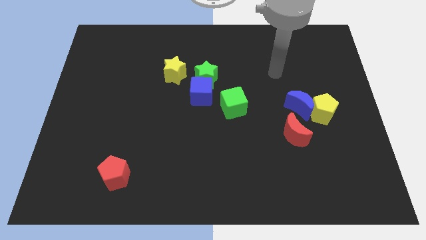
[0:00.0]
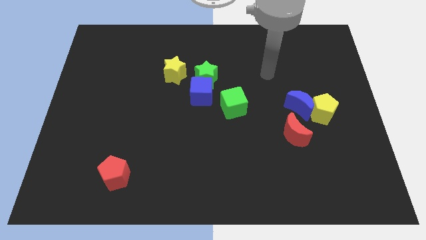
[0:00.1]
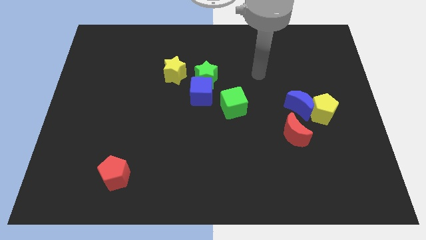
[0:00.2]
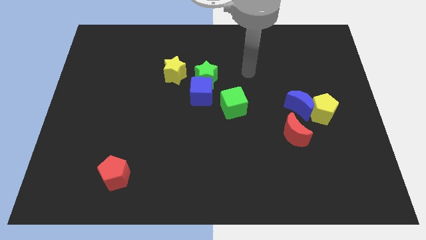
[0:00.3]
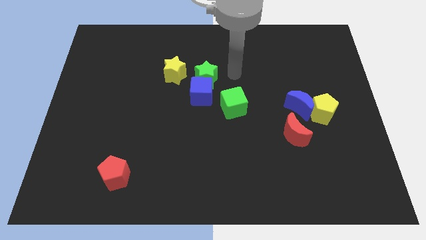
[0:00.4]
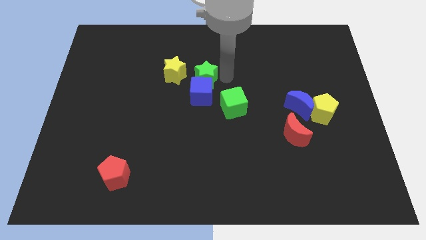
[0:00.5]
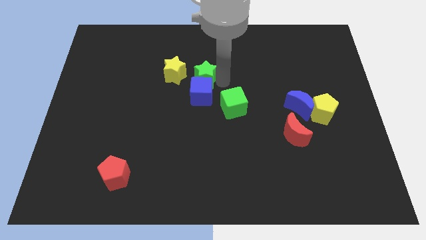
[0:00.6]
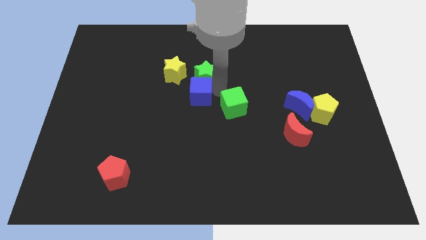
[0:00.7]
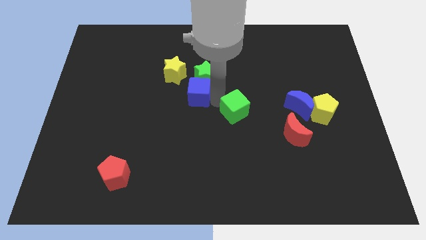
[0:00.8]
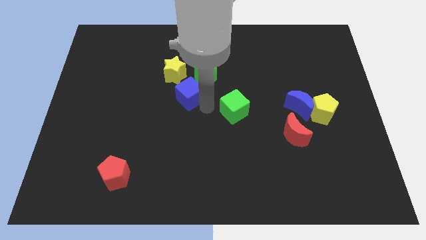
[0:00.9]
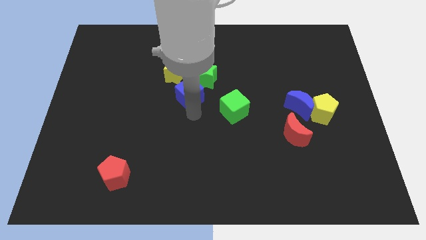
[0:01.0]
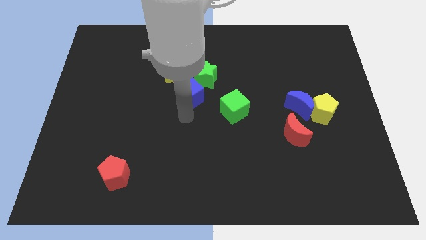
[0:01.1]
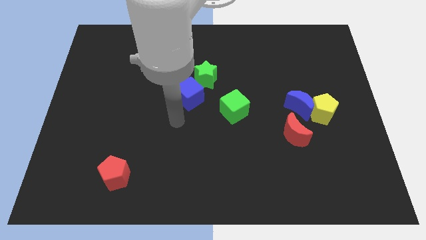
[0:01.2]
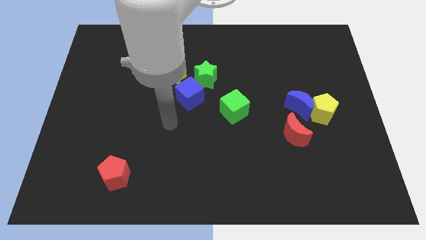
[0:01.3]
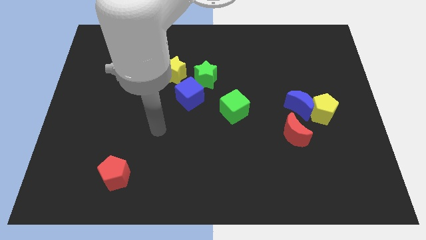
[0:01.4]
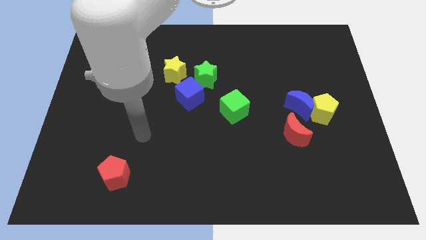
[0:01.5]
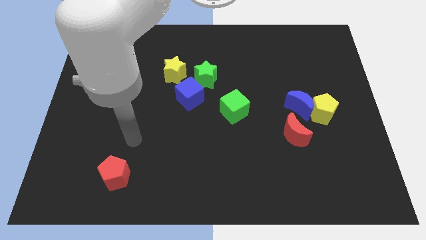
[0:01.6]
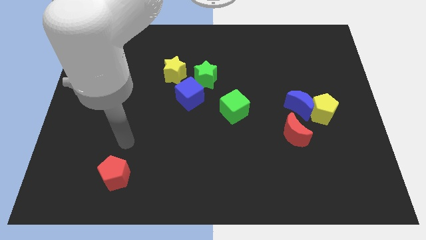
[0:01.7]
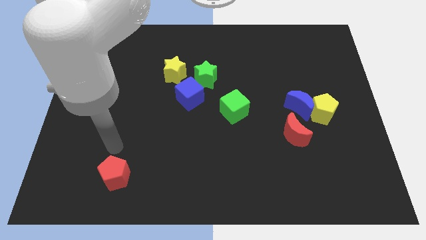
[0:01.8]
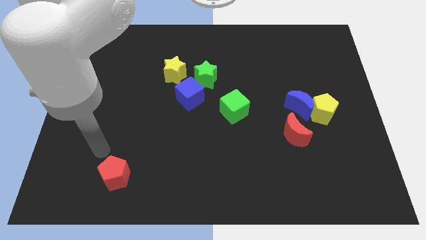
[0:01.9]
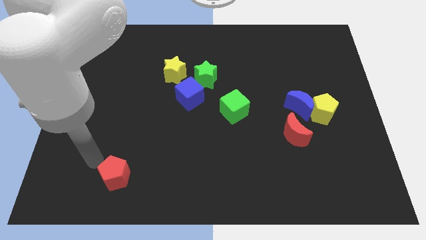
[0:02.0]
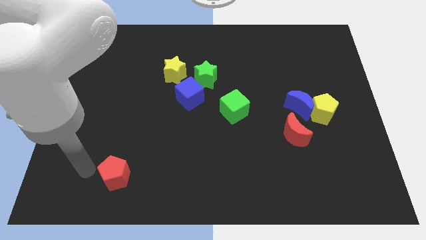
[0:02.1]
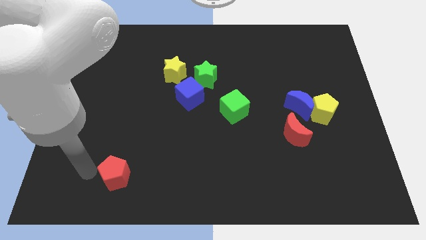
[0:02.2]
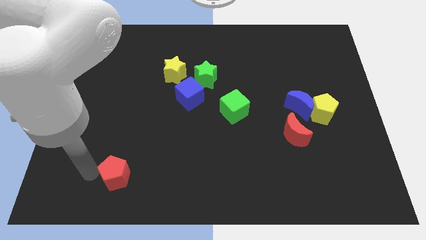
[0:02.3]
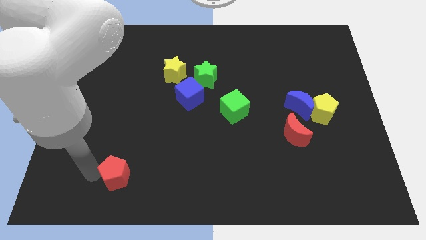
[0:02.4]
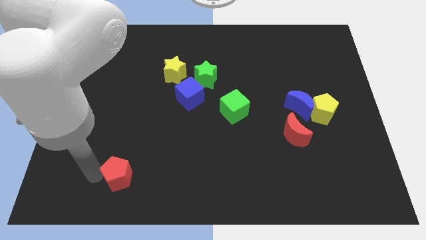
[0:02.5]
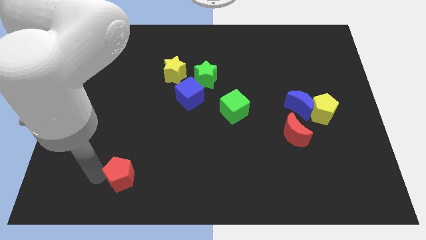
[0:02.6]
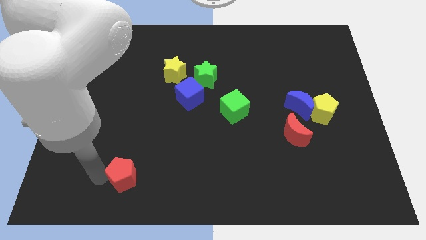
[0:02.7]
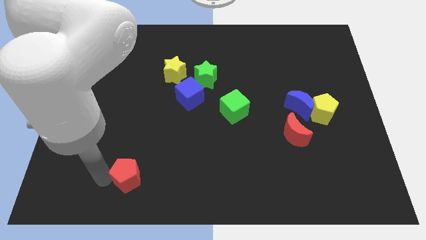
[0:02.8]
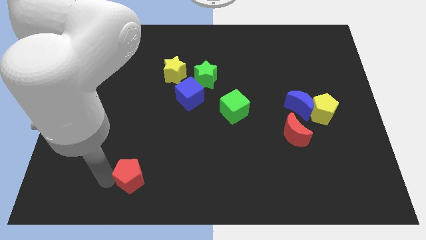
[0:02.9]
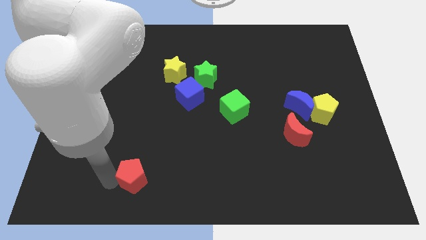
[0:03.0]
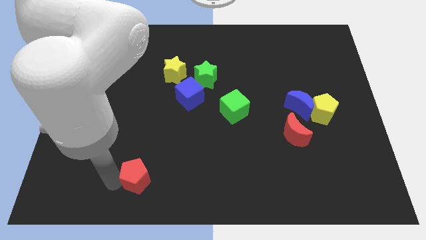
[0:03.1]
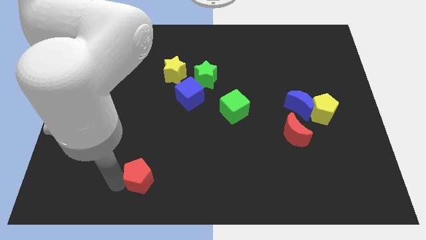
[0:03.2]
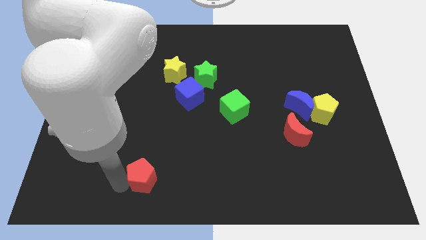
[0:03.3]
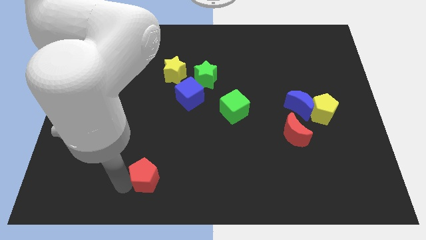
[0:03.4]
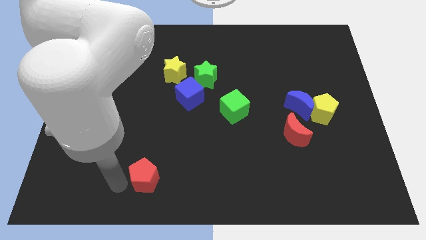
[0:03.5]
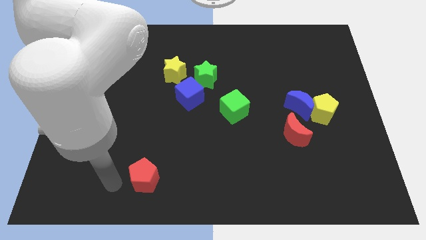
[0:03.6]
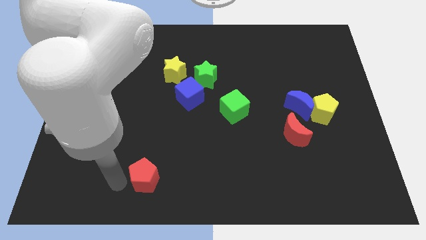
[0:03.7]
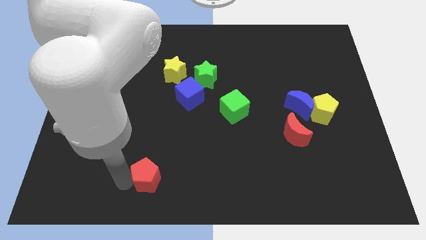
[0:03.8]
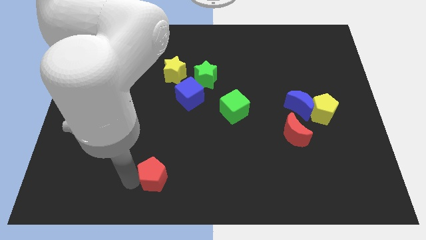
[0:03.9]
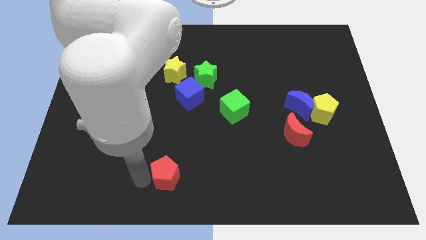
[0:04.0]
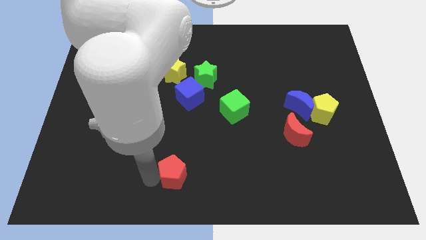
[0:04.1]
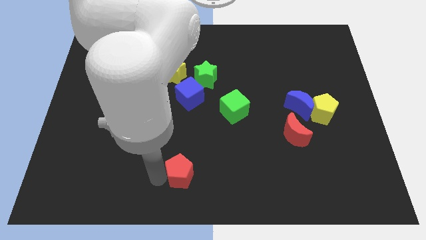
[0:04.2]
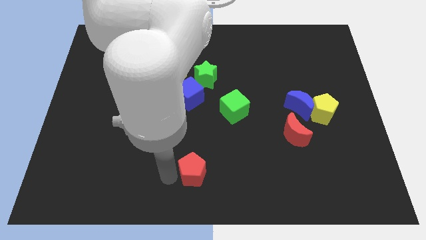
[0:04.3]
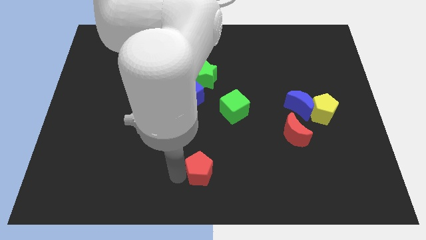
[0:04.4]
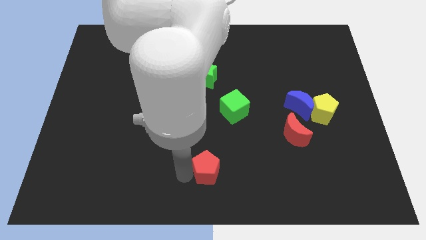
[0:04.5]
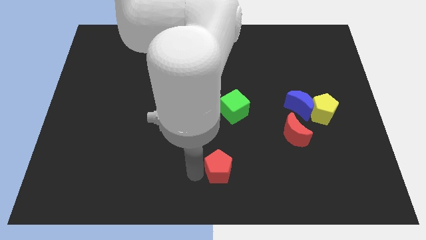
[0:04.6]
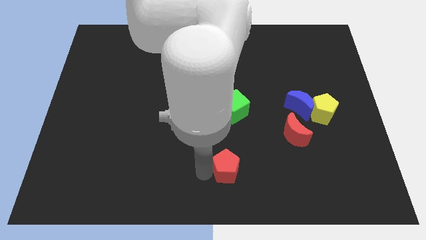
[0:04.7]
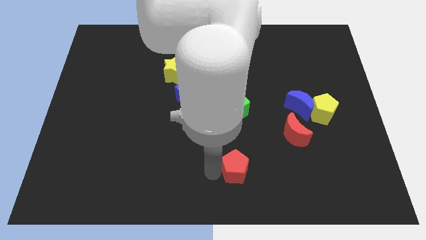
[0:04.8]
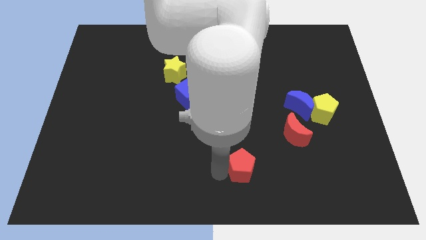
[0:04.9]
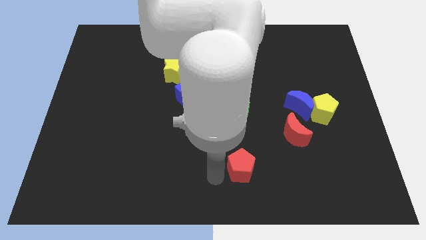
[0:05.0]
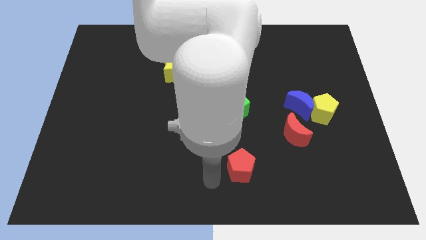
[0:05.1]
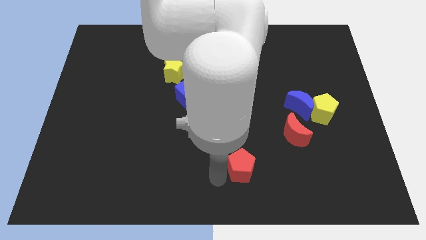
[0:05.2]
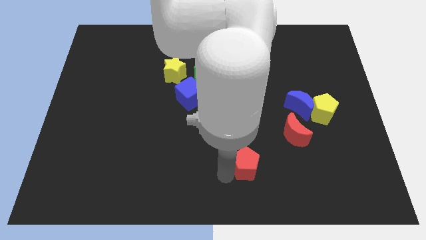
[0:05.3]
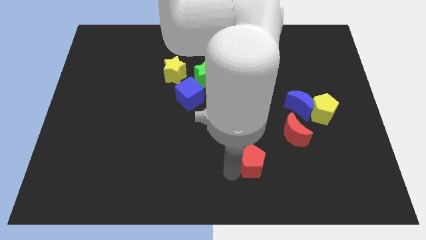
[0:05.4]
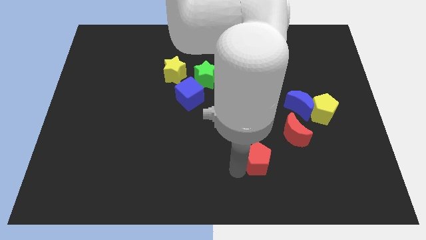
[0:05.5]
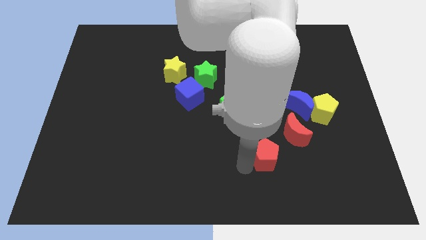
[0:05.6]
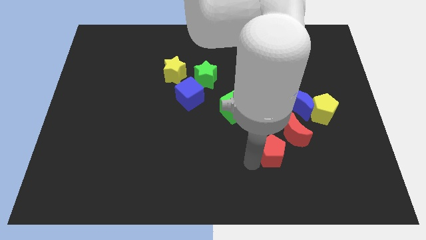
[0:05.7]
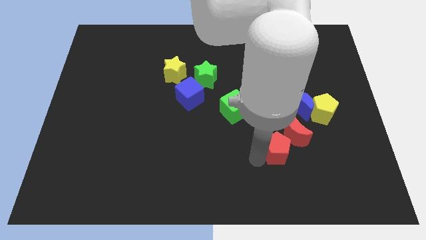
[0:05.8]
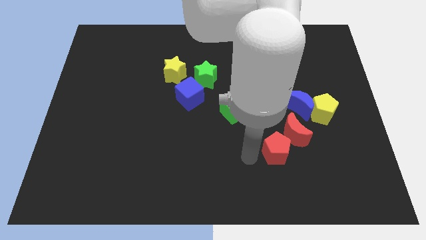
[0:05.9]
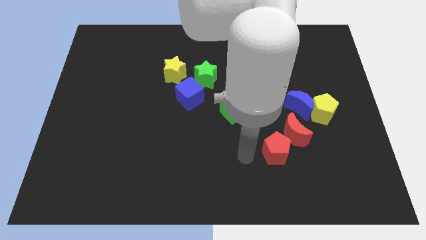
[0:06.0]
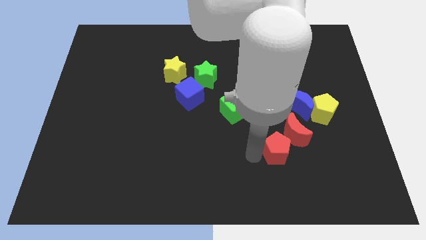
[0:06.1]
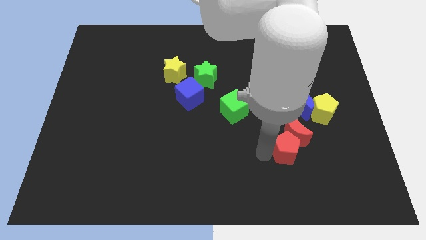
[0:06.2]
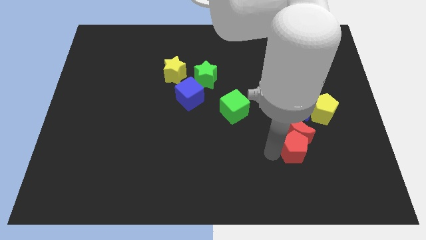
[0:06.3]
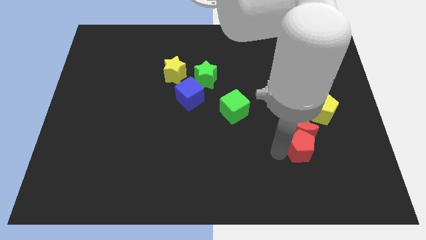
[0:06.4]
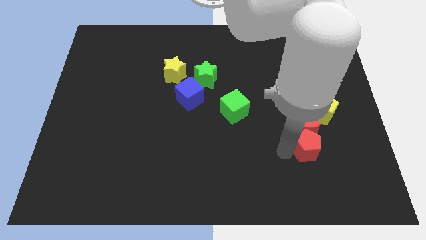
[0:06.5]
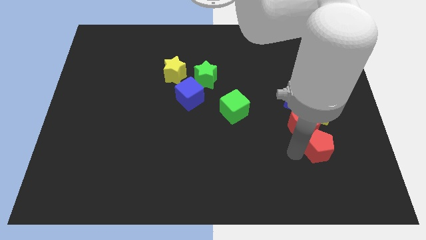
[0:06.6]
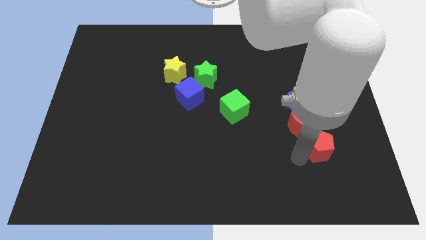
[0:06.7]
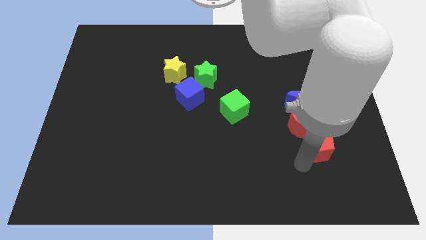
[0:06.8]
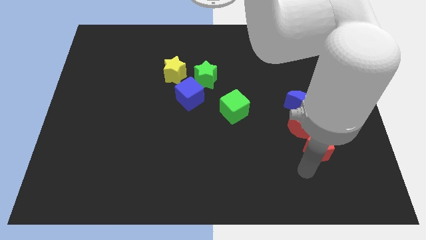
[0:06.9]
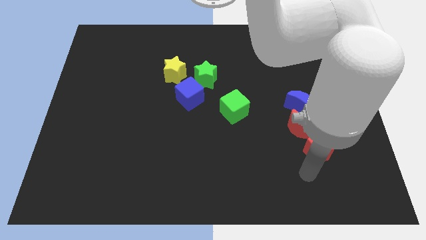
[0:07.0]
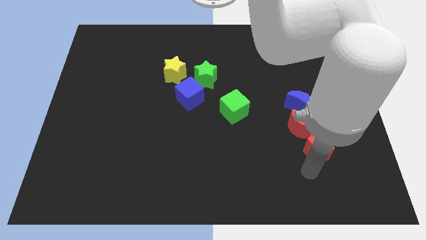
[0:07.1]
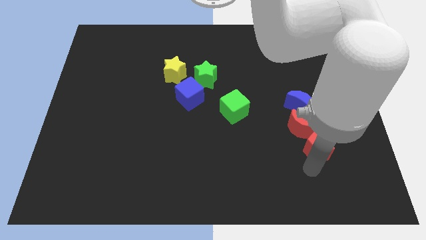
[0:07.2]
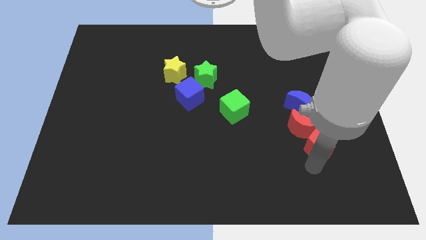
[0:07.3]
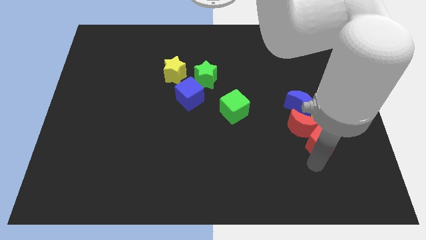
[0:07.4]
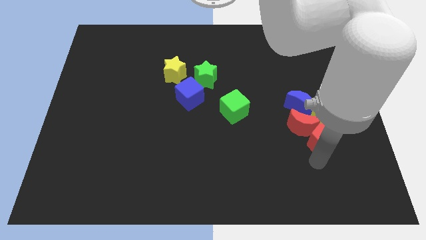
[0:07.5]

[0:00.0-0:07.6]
slide the red pentagon to the bottom right of the blue moon
